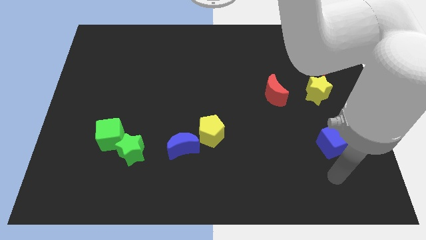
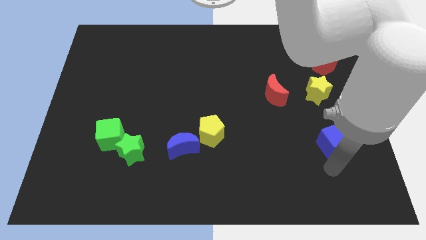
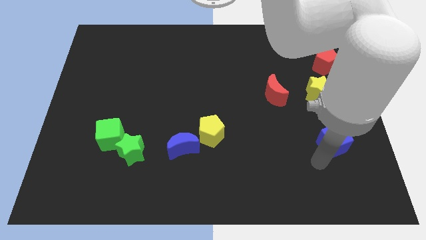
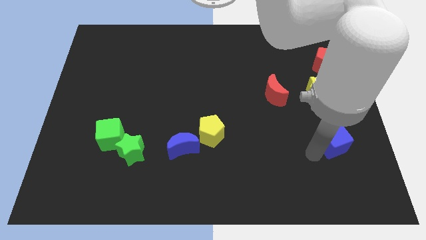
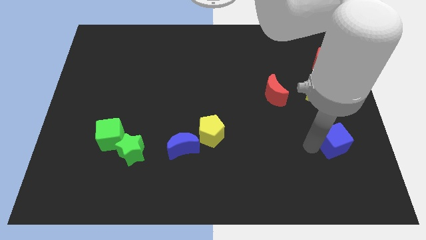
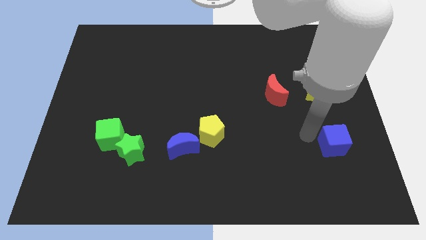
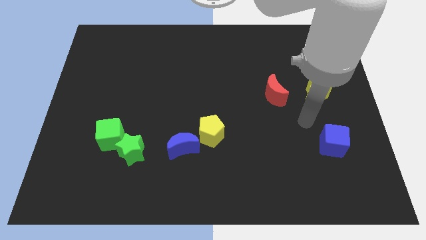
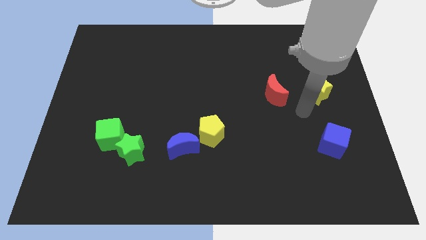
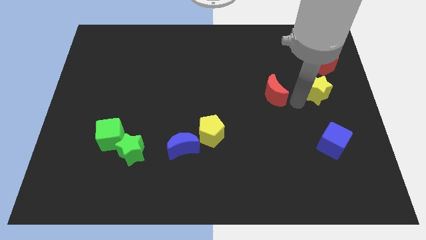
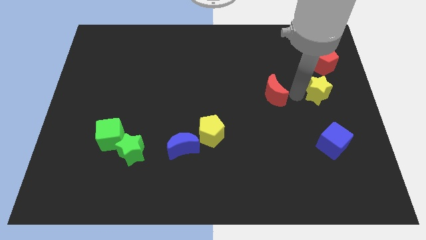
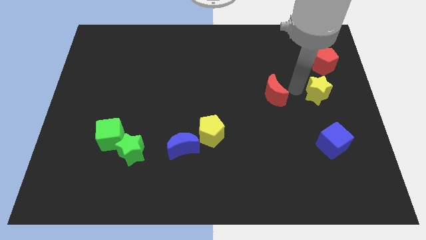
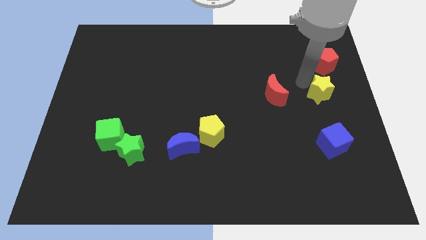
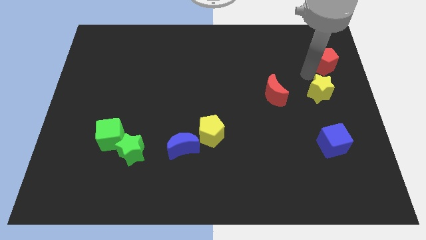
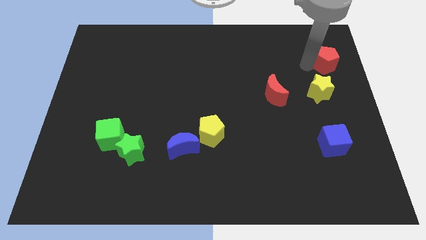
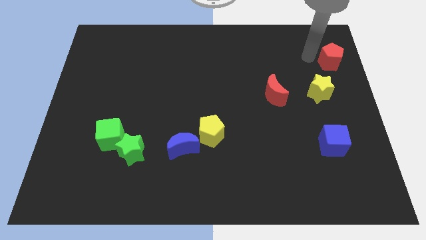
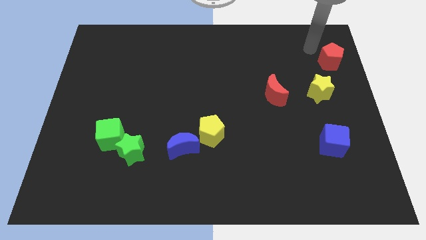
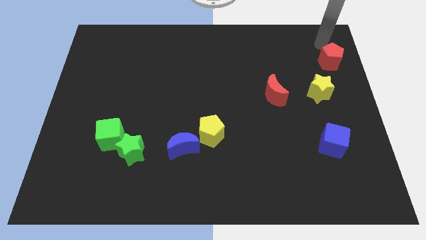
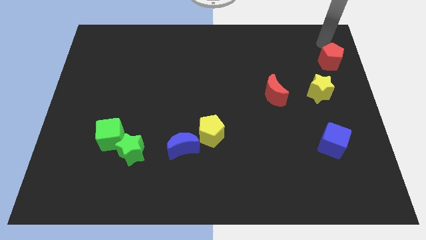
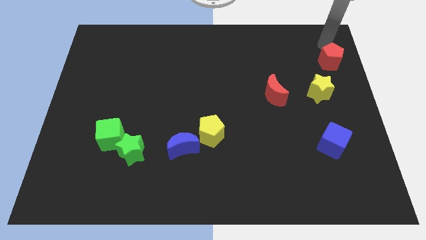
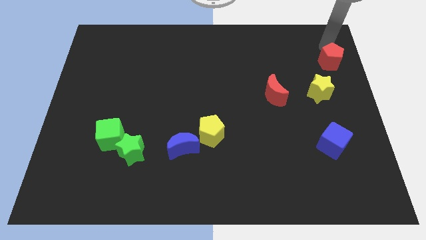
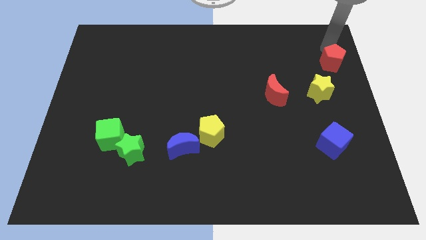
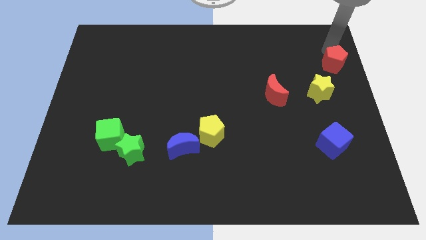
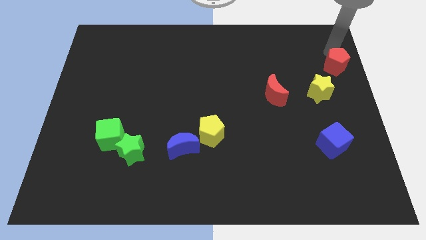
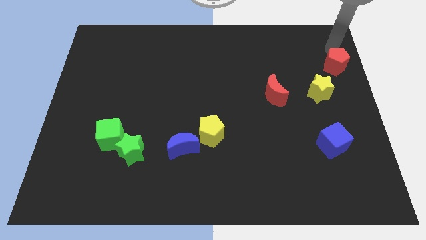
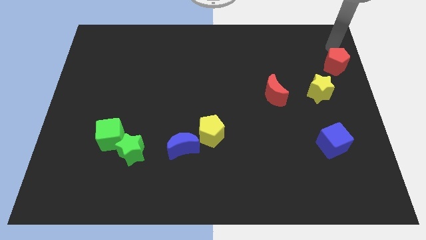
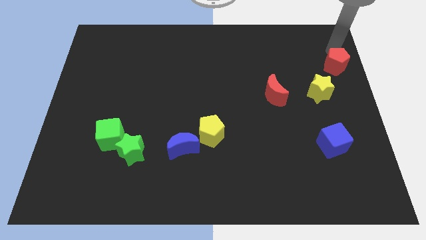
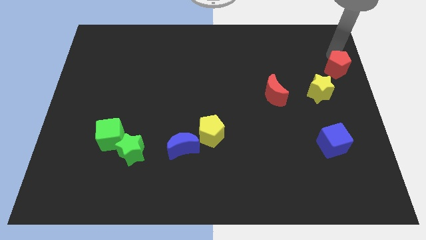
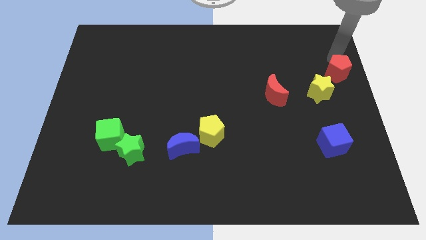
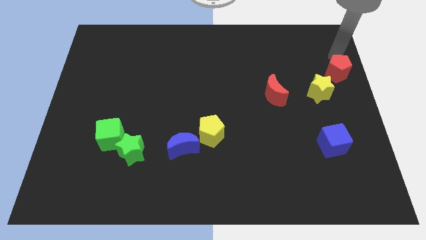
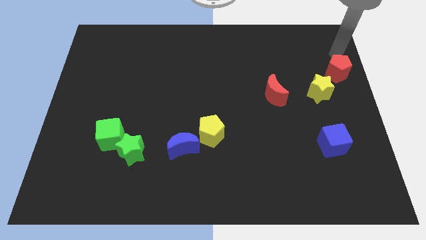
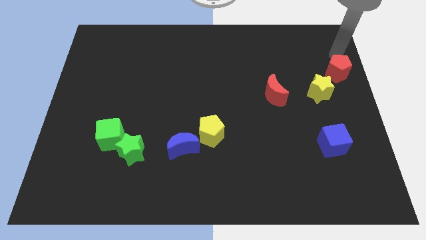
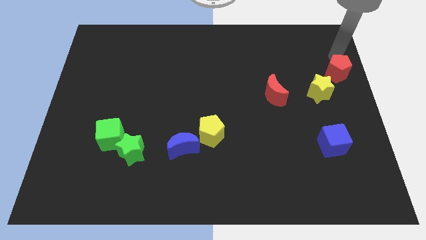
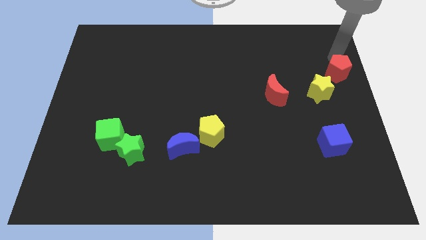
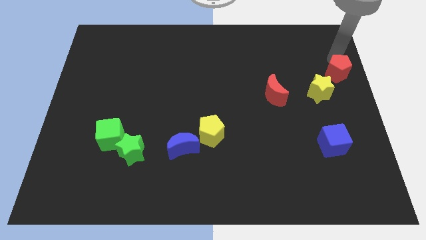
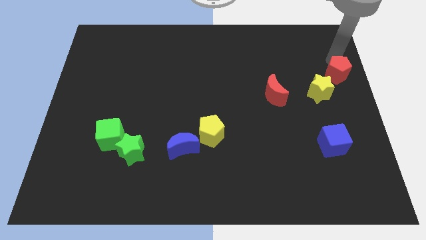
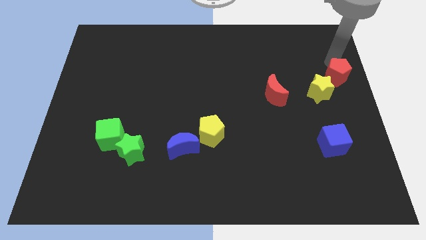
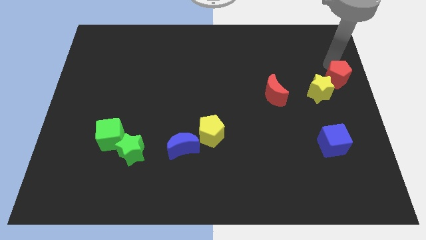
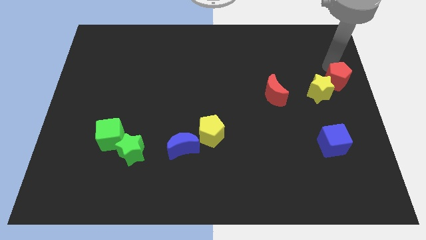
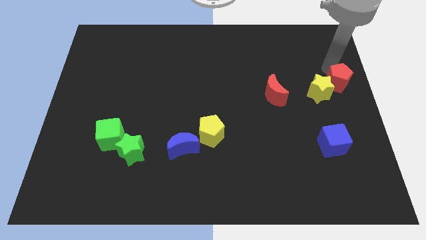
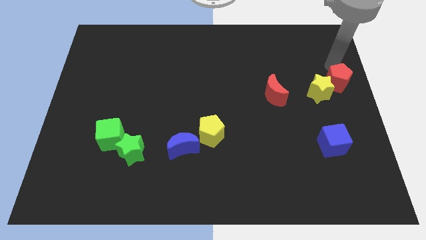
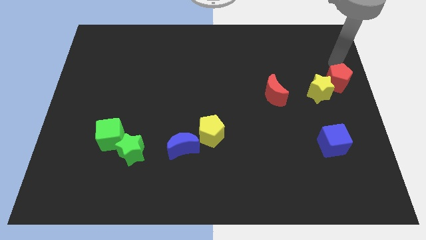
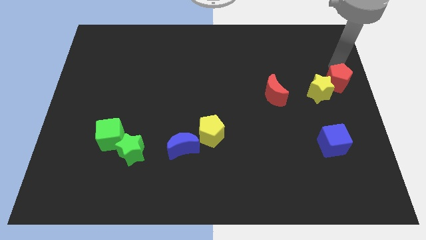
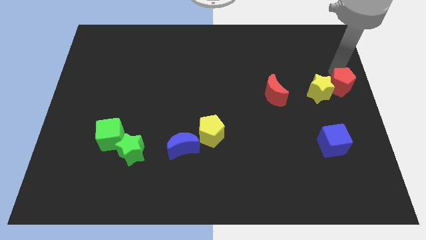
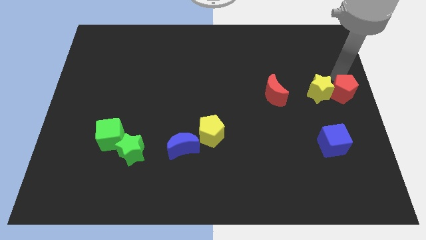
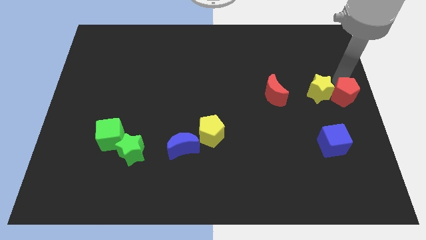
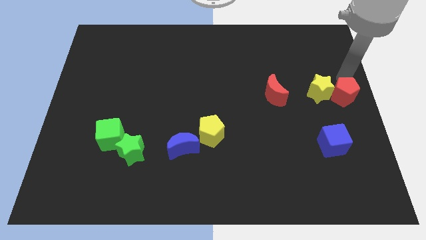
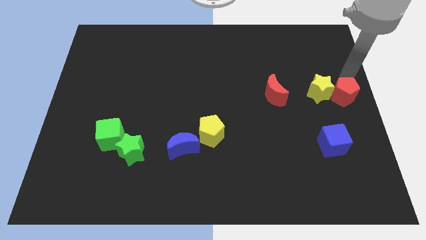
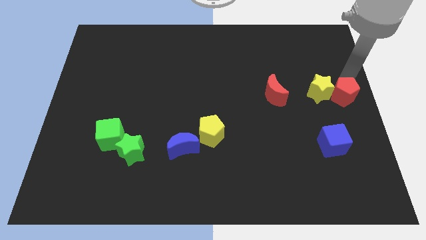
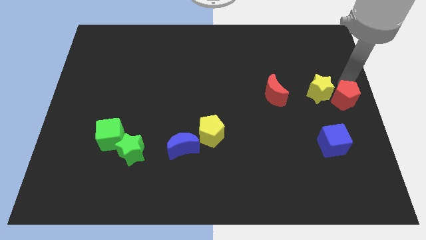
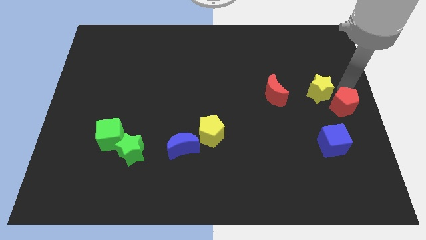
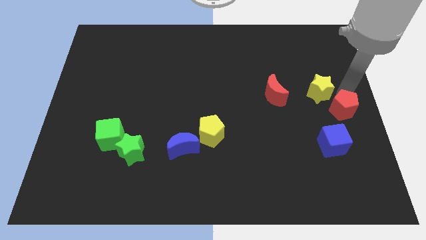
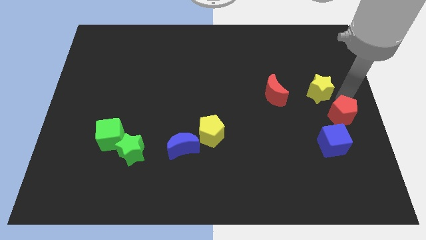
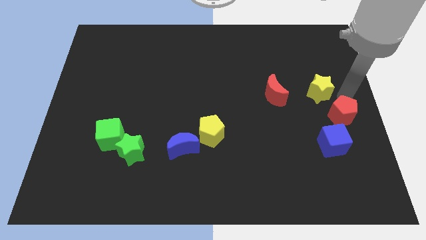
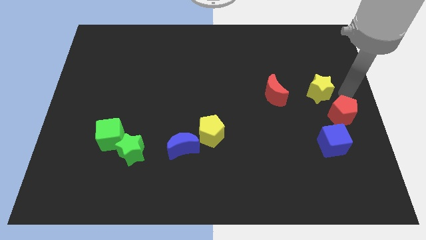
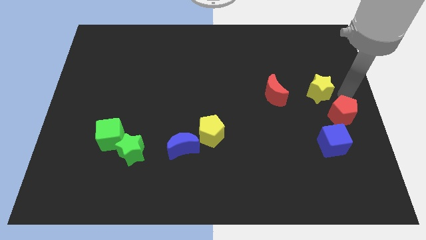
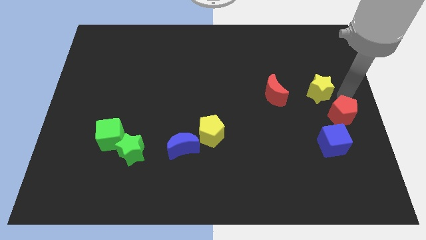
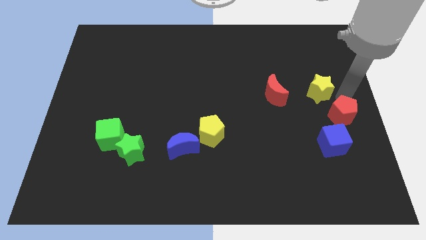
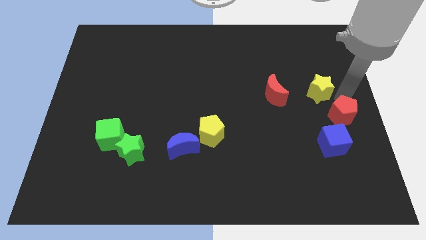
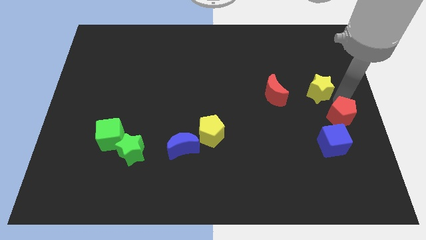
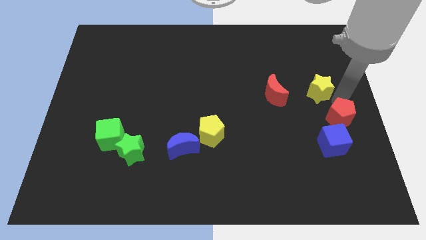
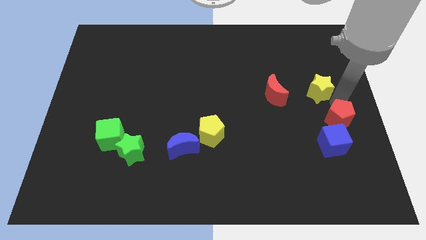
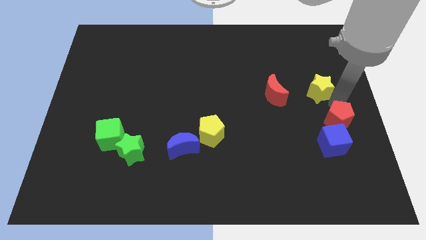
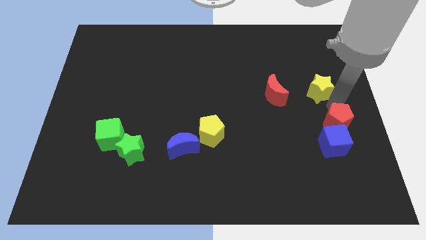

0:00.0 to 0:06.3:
move the red pentagon close to the blue cube

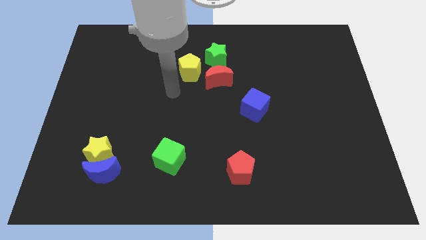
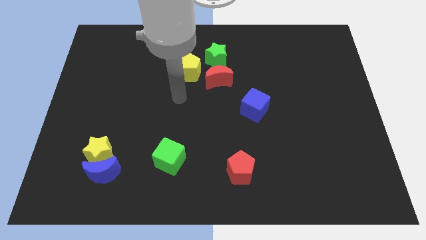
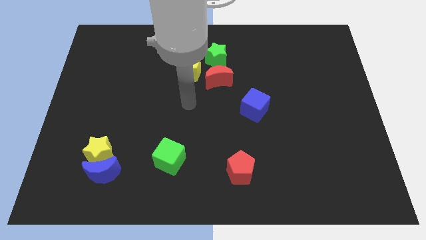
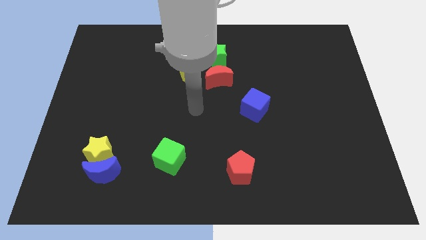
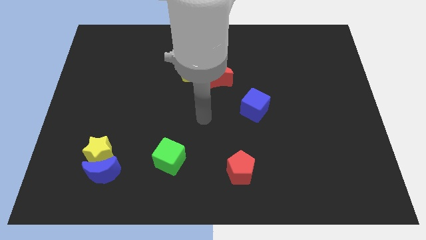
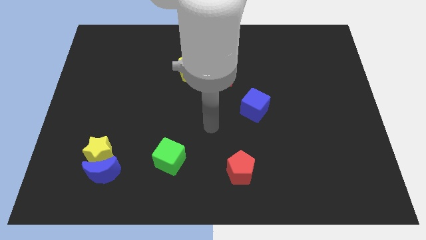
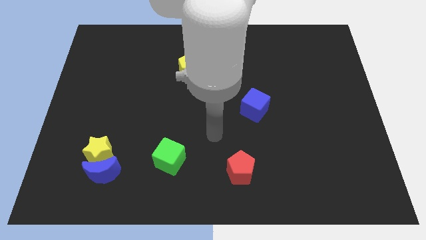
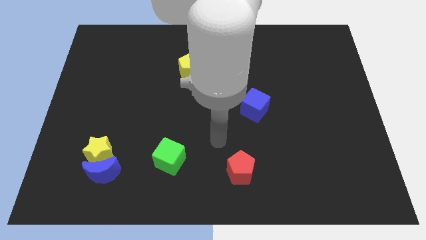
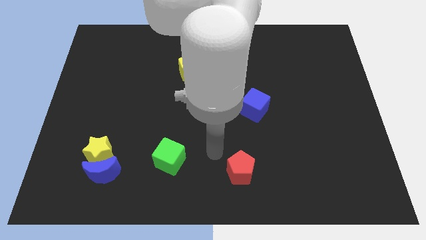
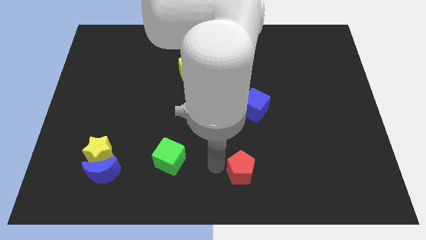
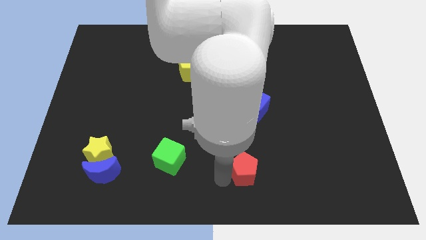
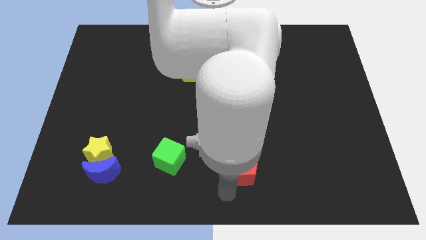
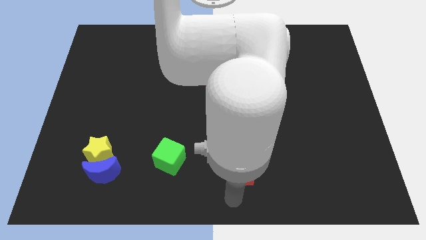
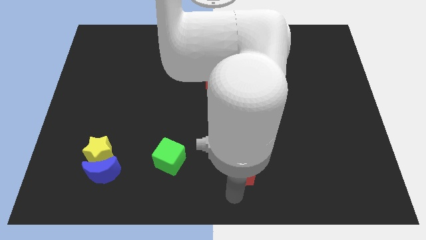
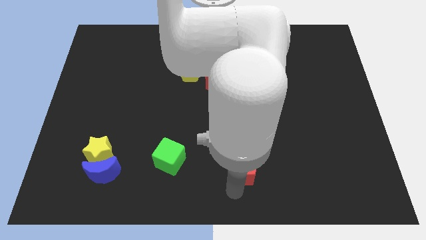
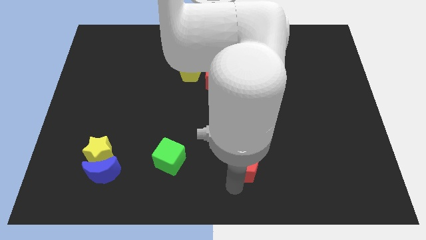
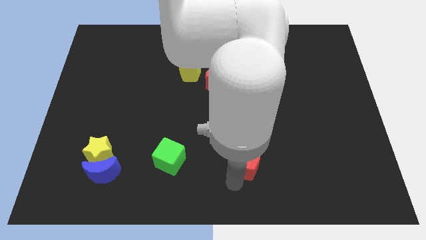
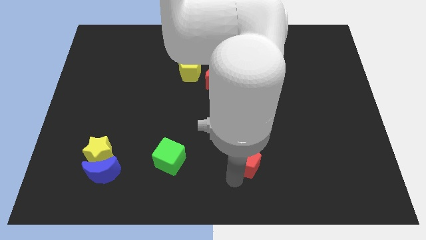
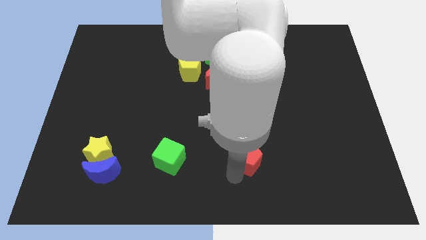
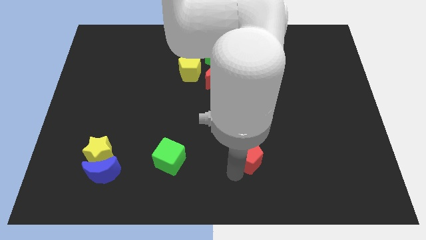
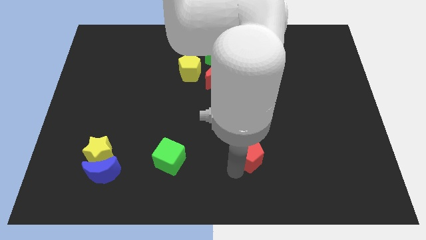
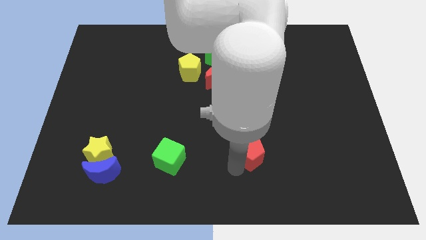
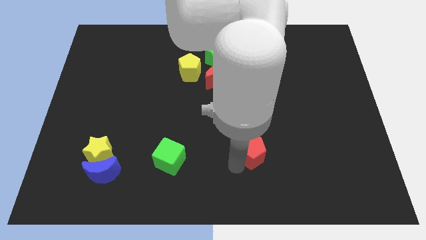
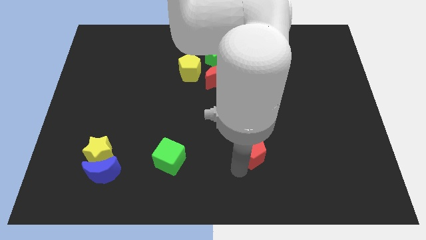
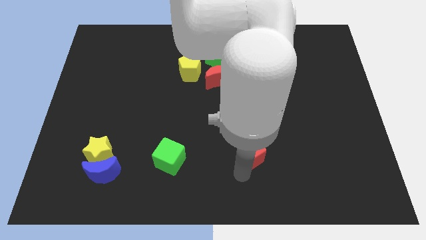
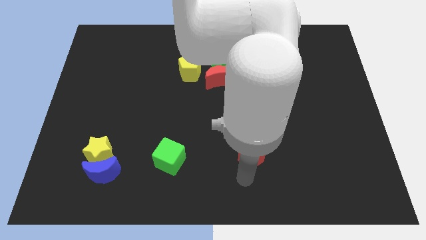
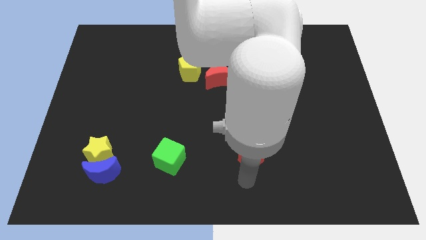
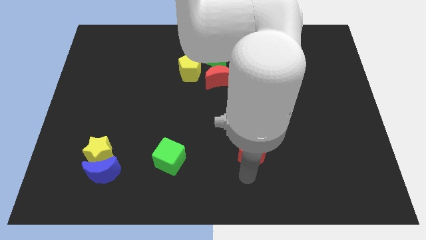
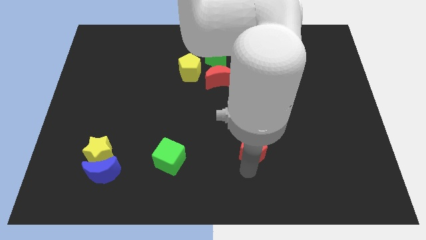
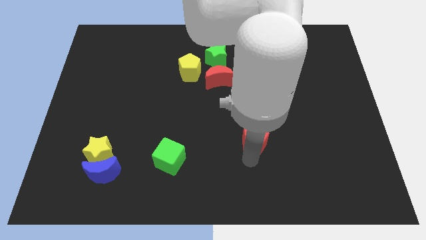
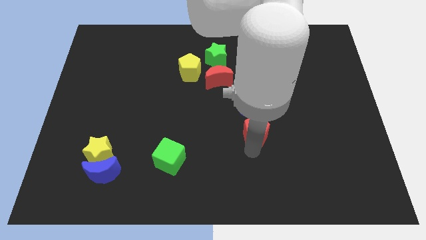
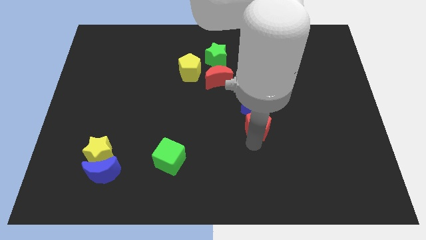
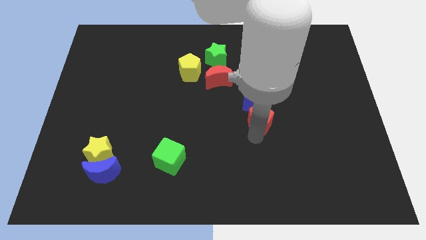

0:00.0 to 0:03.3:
move the red pentagon next to the blue cube
